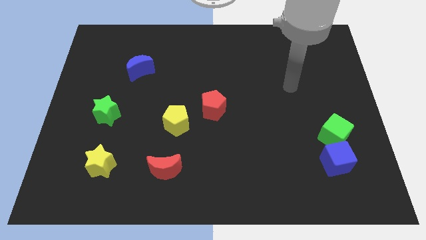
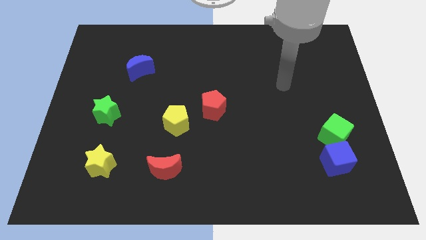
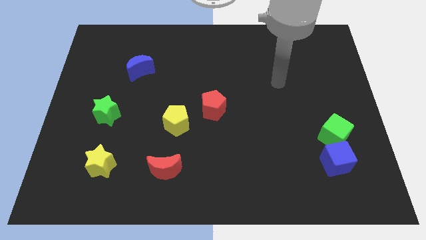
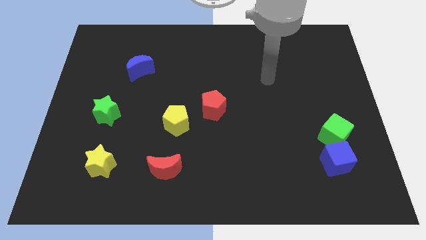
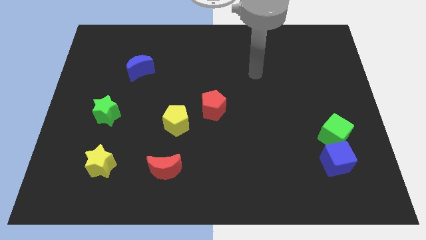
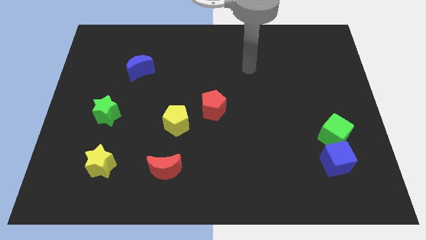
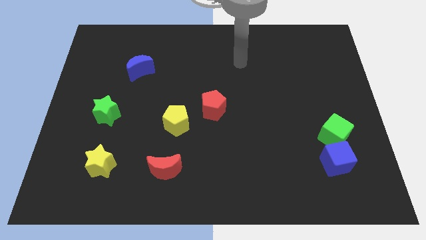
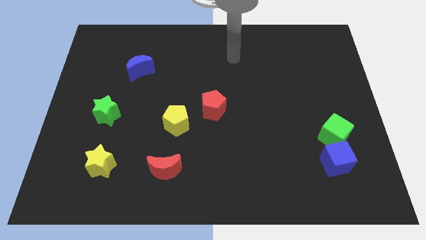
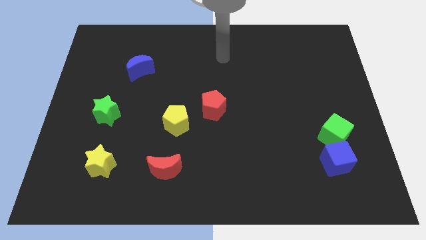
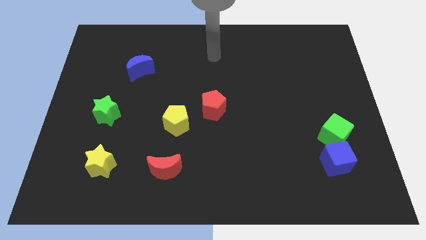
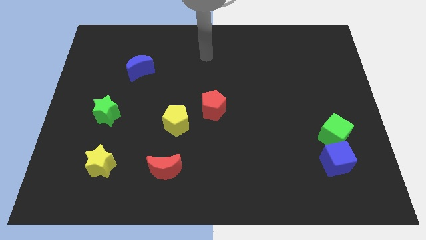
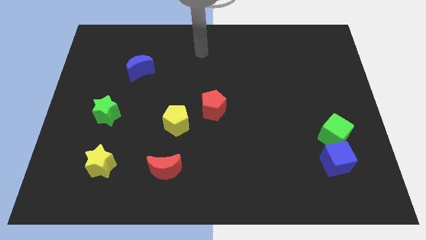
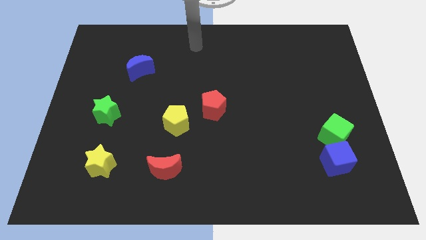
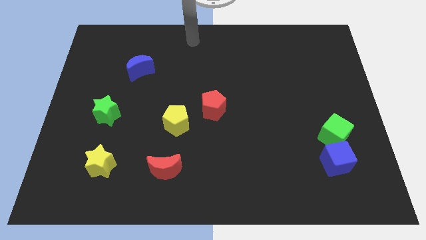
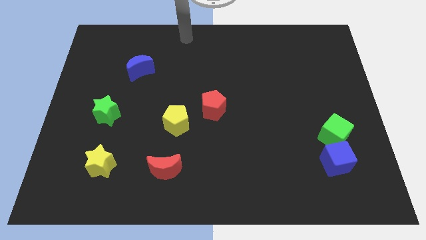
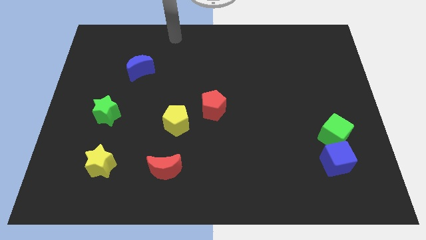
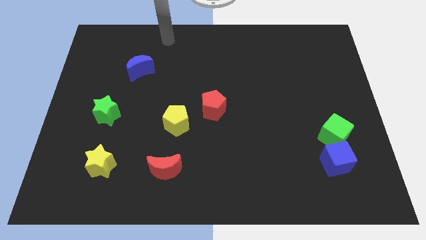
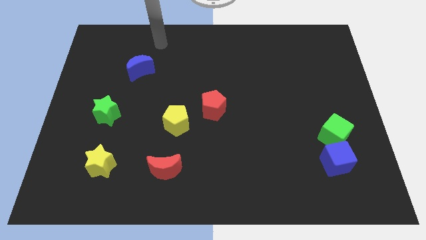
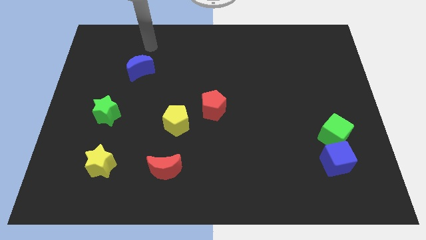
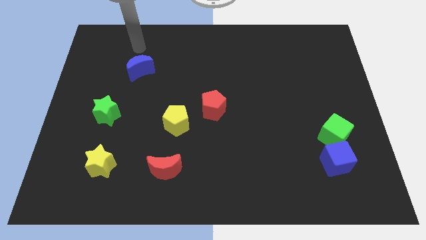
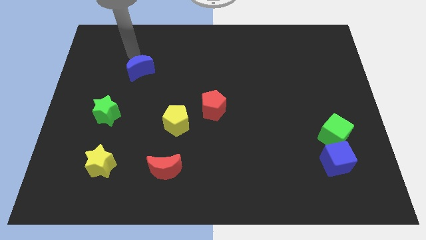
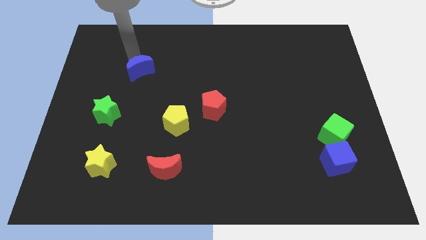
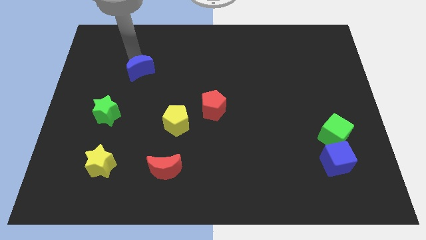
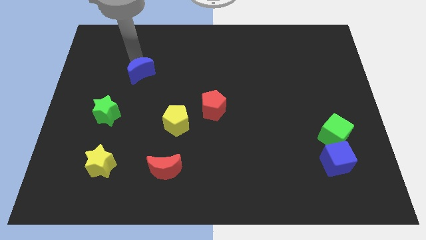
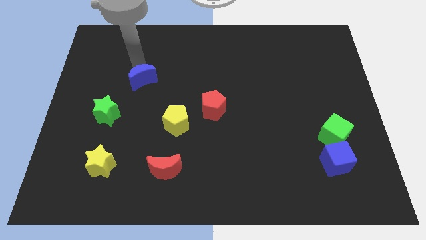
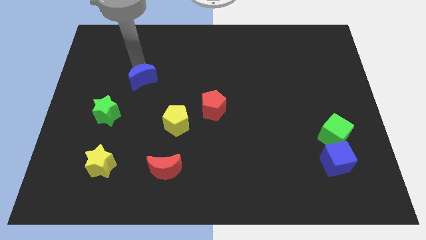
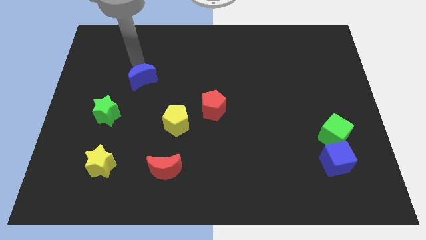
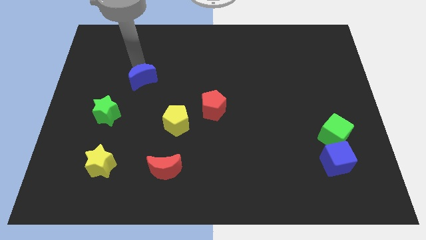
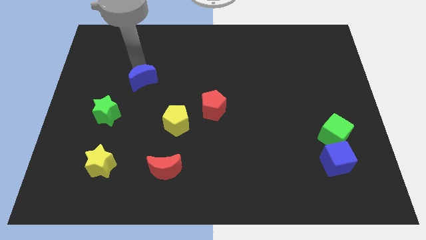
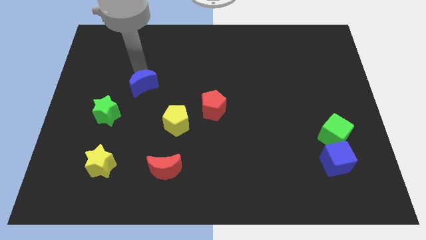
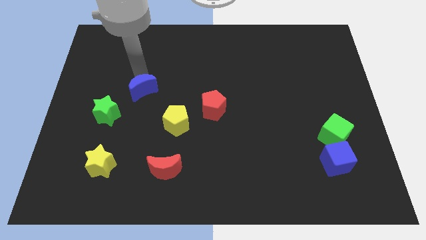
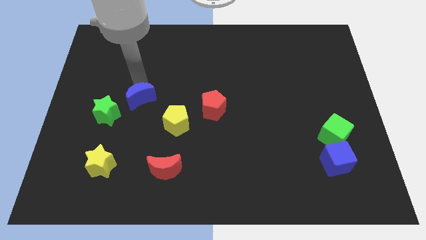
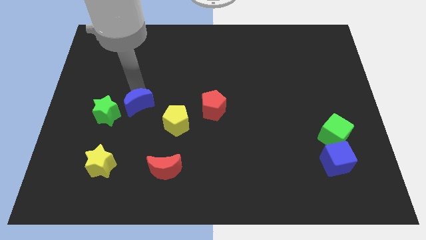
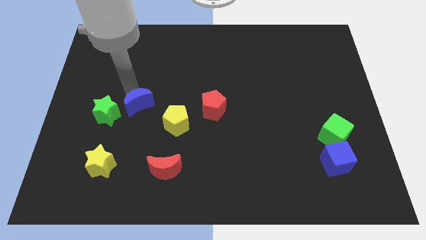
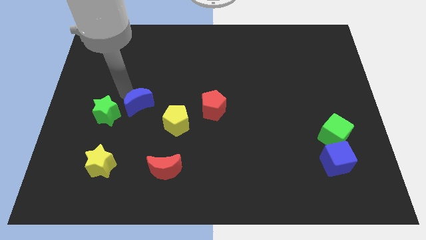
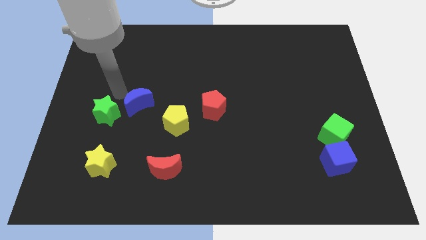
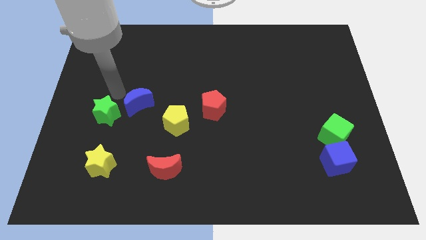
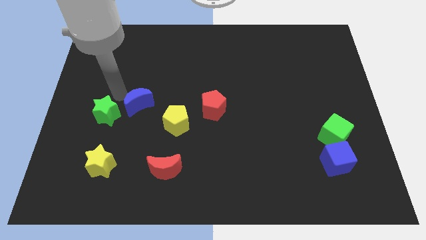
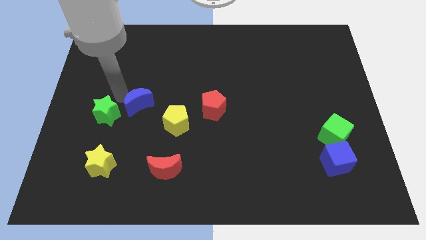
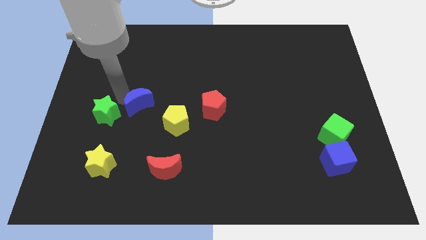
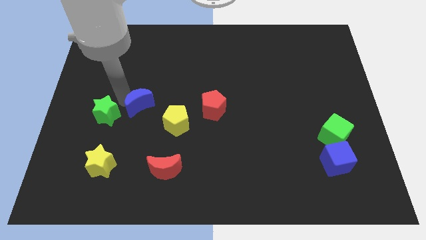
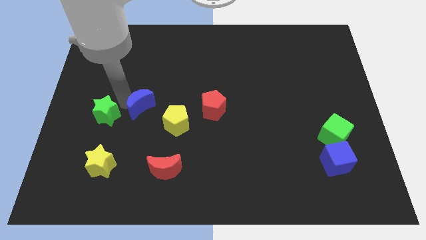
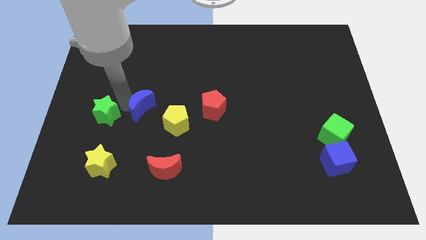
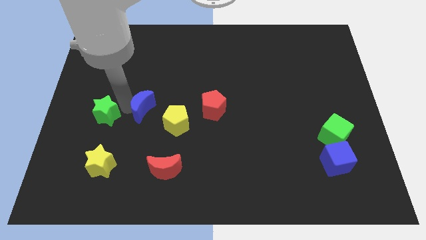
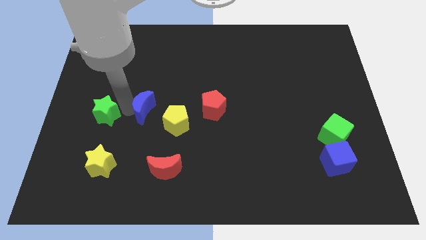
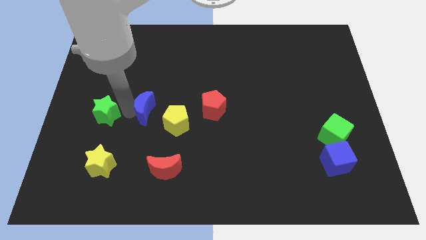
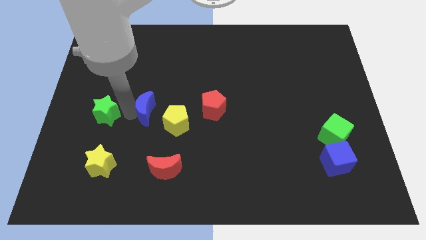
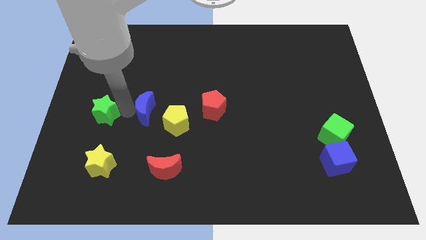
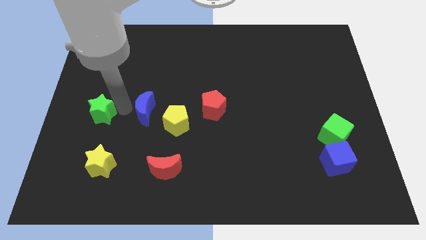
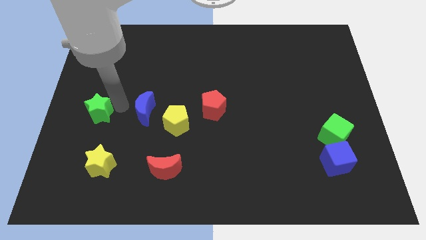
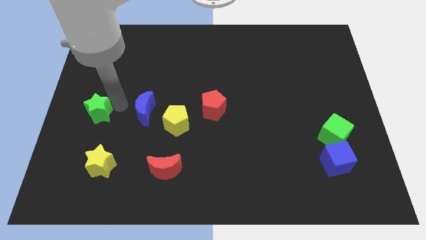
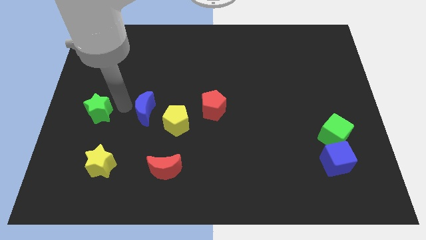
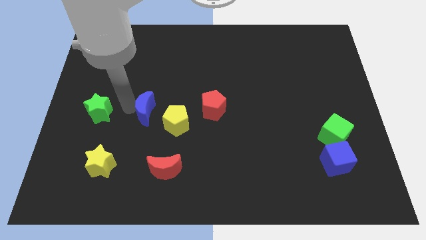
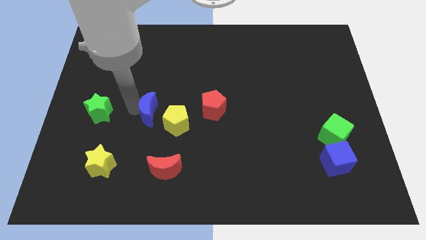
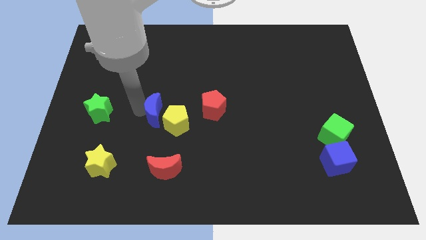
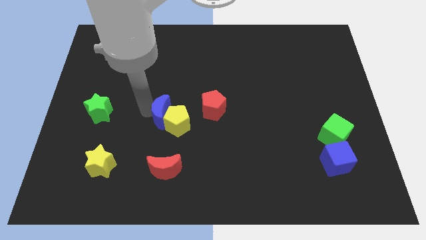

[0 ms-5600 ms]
put the blue moon close to the yellow pentagon

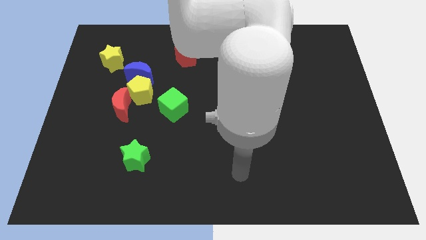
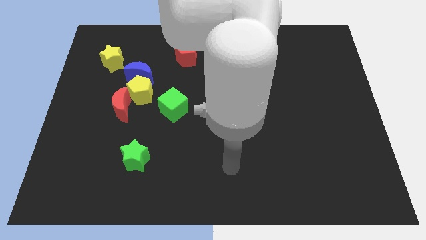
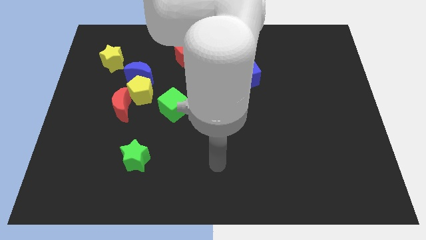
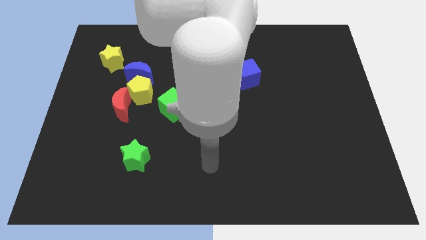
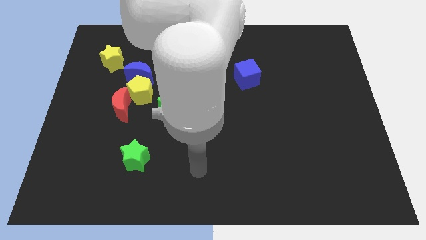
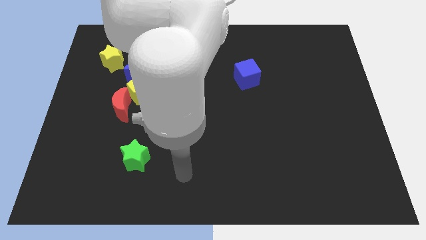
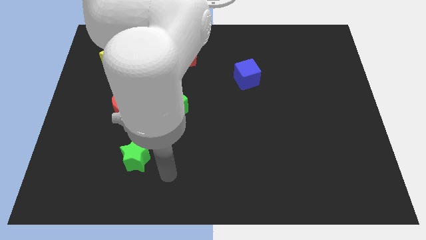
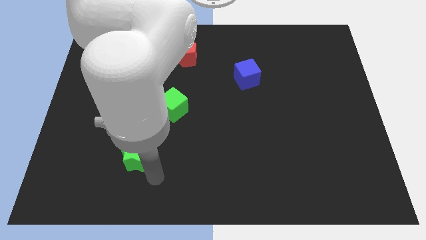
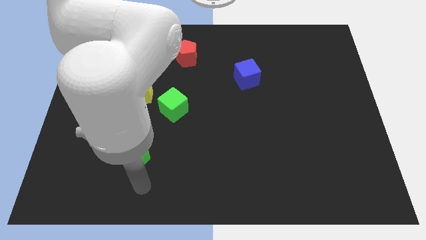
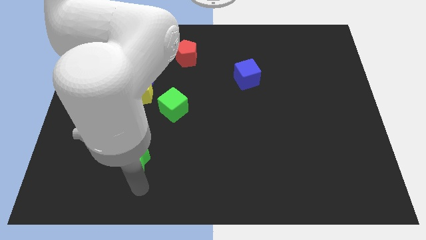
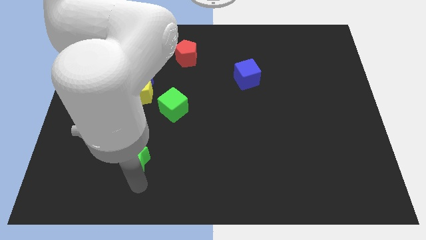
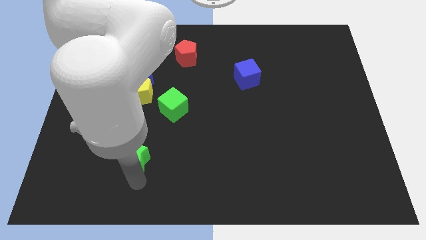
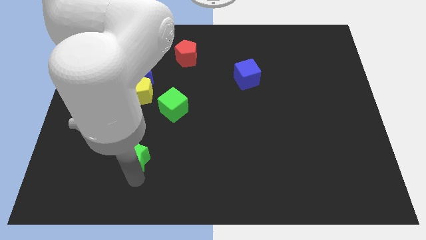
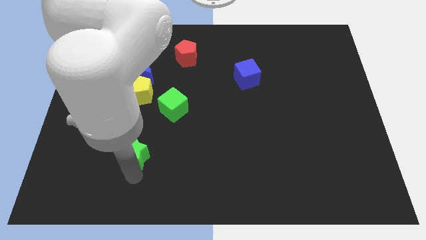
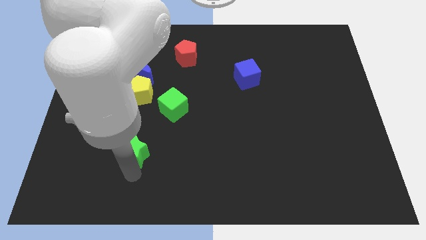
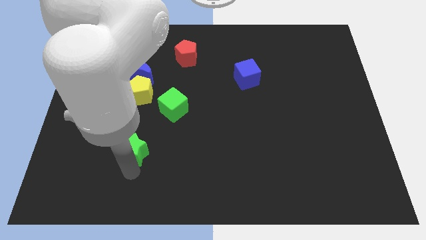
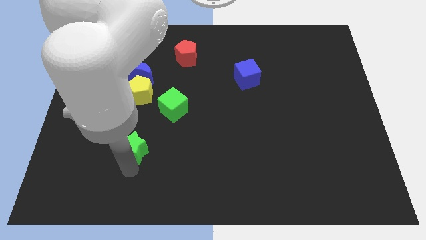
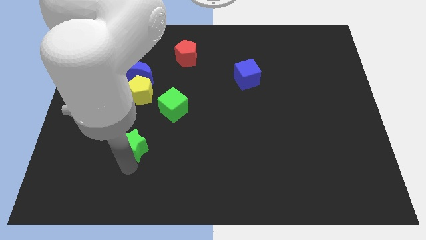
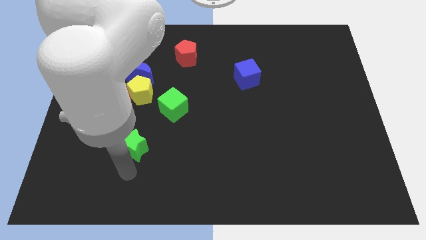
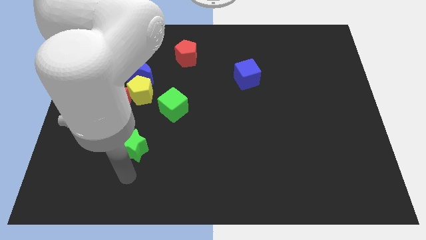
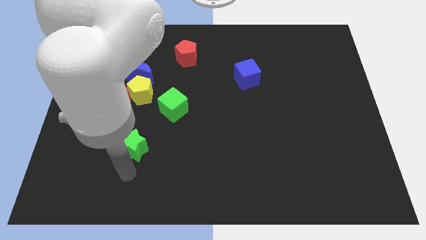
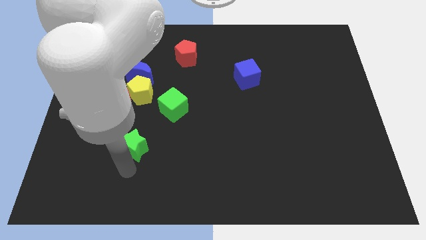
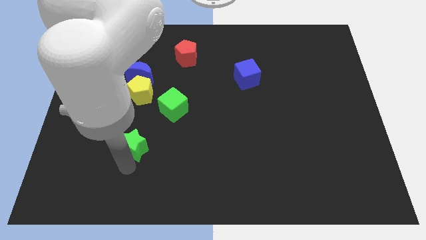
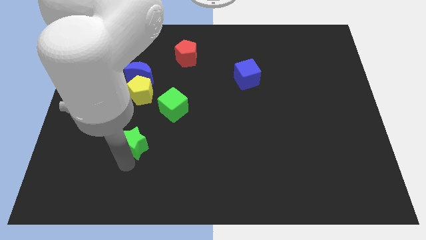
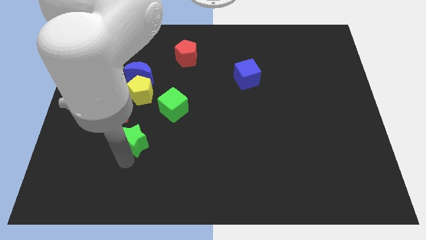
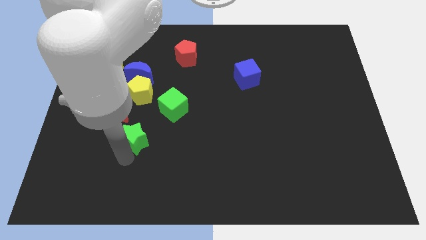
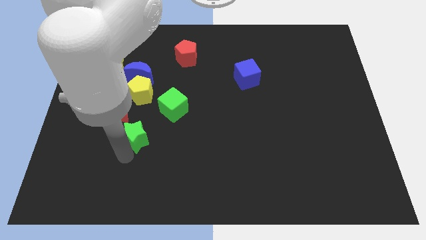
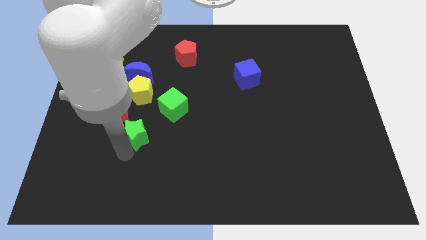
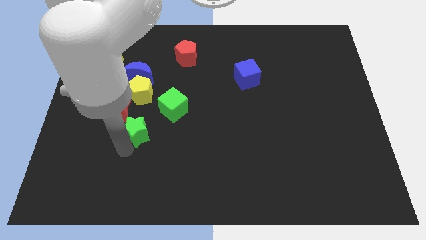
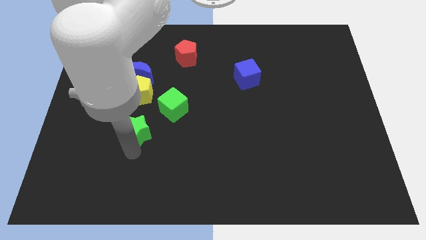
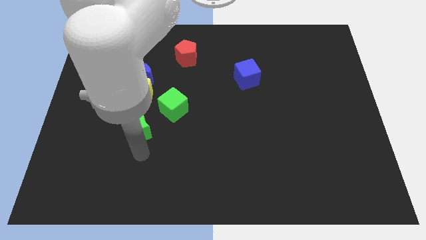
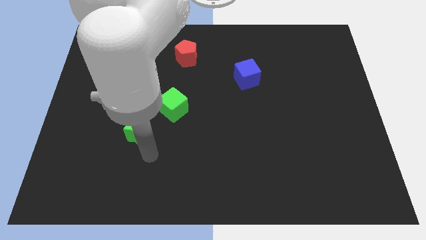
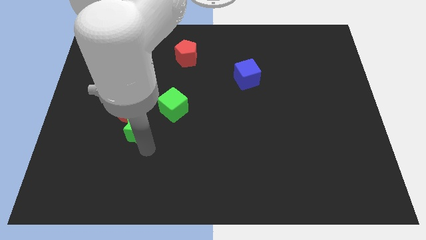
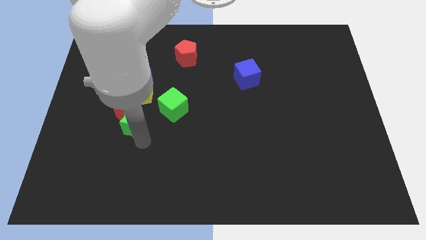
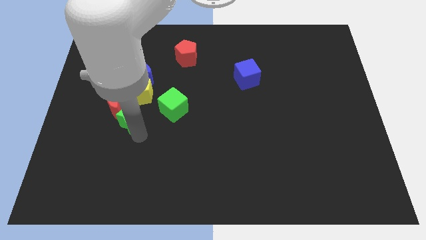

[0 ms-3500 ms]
put the green star close to the red moon
